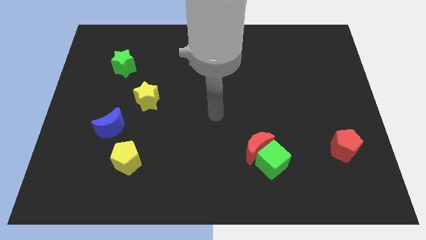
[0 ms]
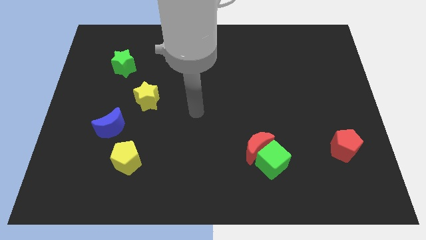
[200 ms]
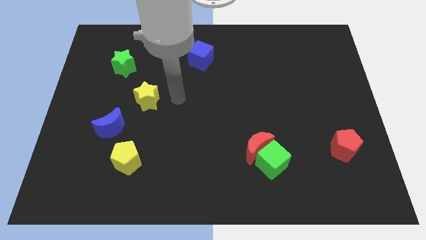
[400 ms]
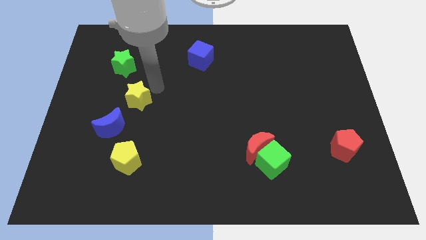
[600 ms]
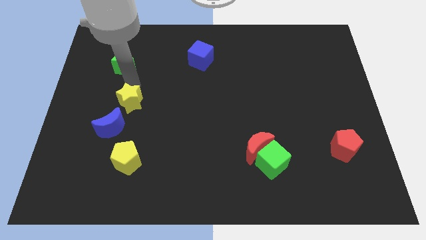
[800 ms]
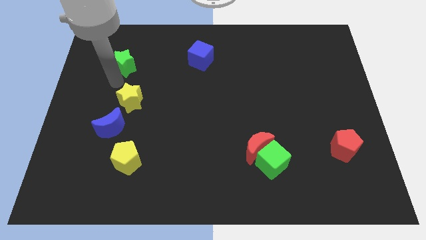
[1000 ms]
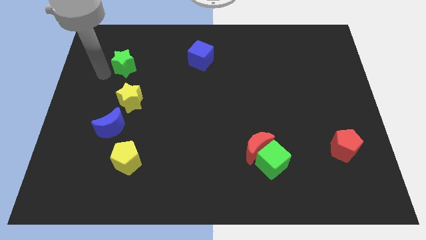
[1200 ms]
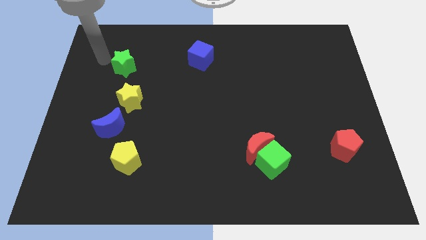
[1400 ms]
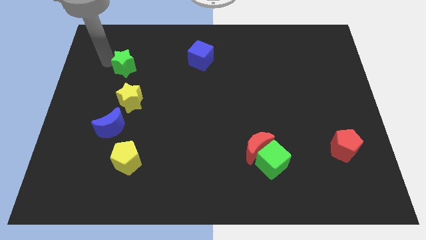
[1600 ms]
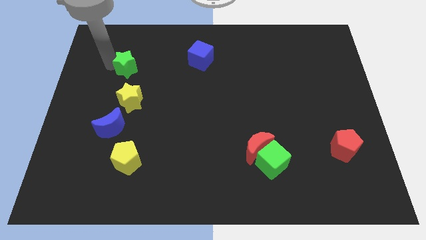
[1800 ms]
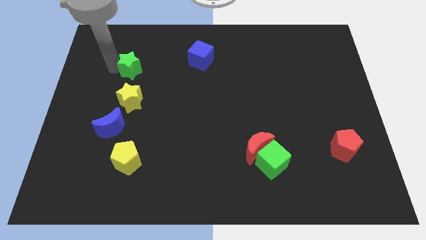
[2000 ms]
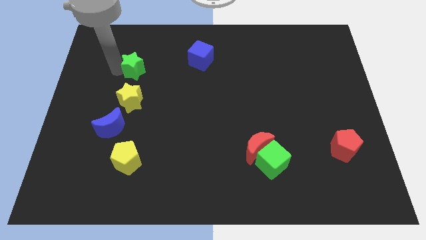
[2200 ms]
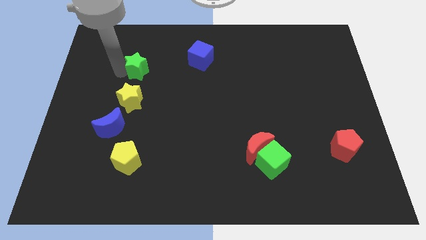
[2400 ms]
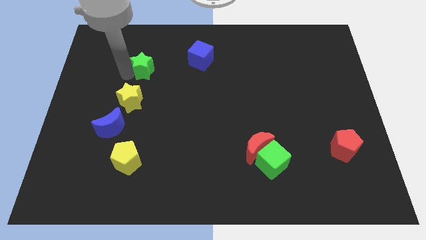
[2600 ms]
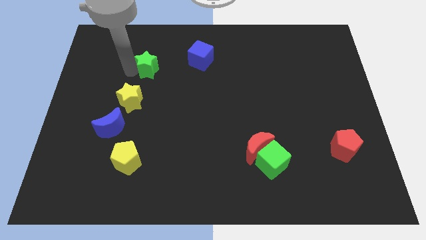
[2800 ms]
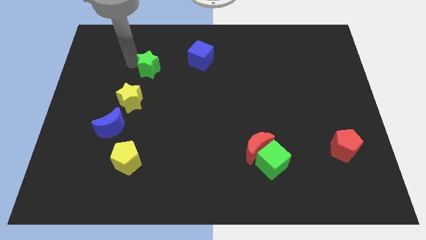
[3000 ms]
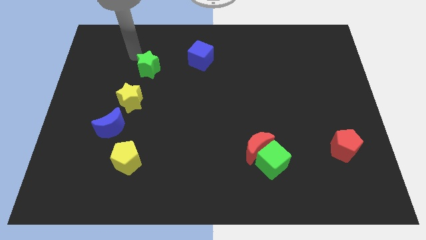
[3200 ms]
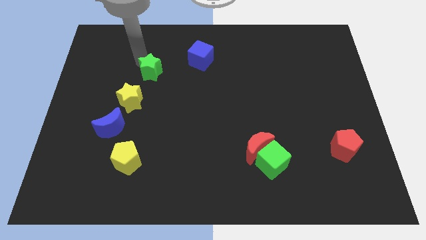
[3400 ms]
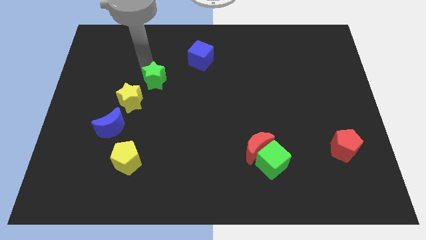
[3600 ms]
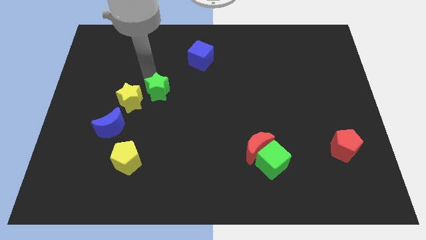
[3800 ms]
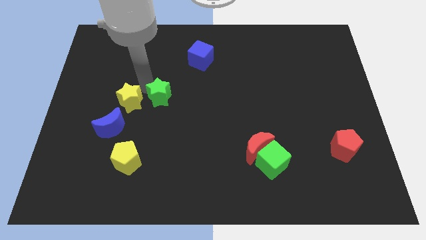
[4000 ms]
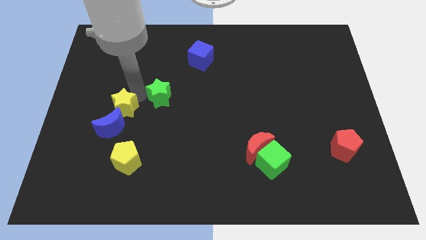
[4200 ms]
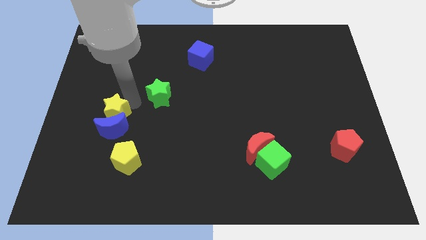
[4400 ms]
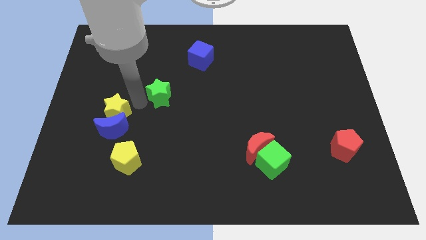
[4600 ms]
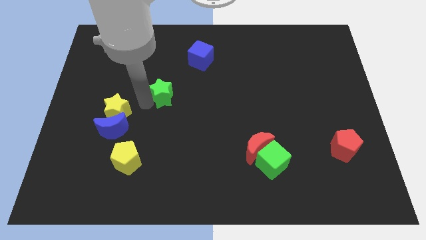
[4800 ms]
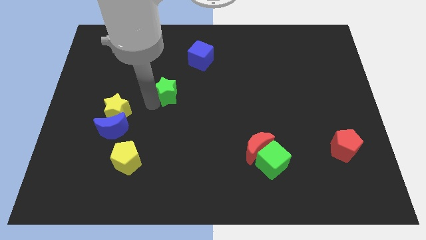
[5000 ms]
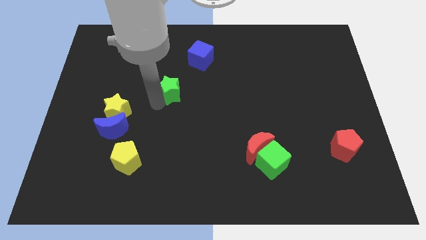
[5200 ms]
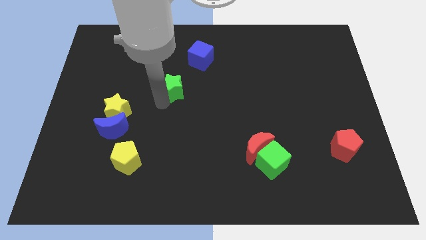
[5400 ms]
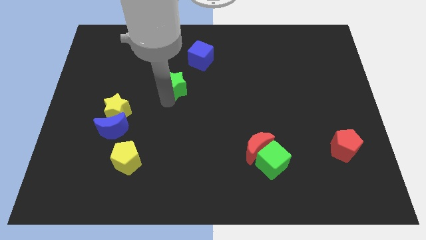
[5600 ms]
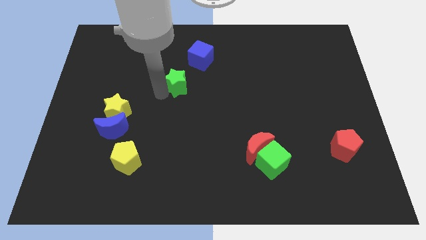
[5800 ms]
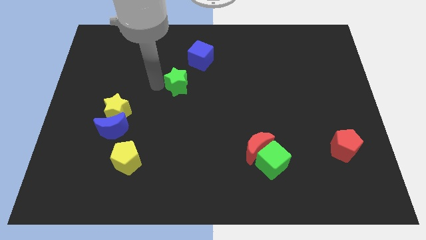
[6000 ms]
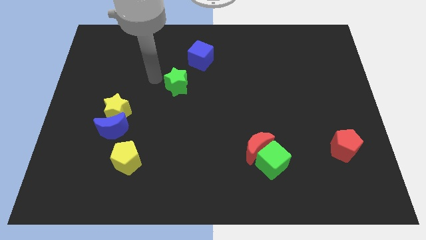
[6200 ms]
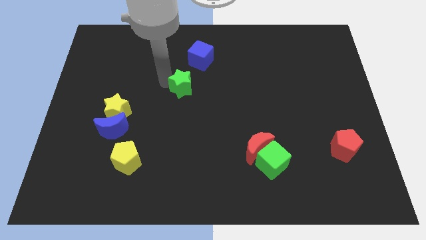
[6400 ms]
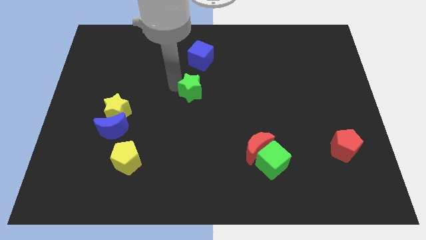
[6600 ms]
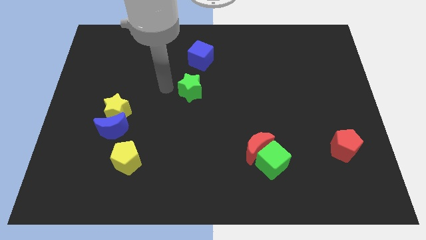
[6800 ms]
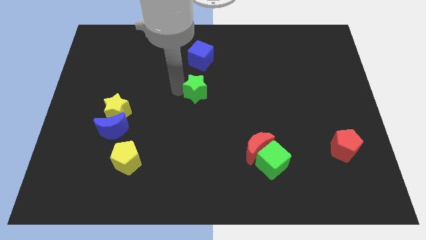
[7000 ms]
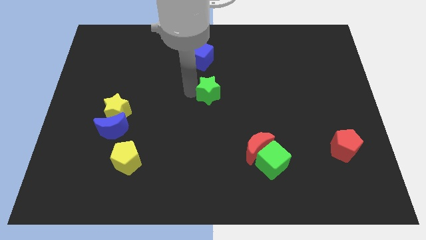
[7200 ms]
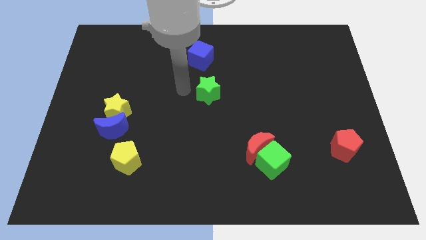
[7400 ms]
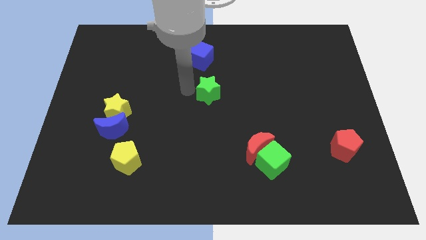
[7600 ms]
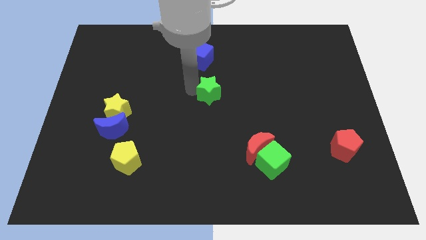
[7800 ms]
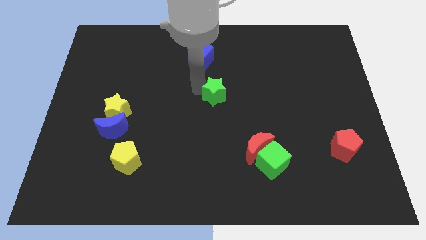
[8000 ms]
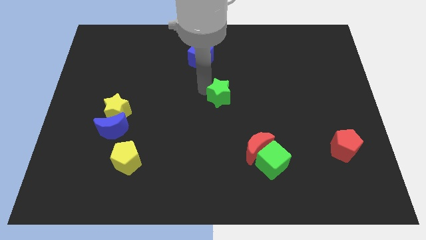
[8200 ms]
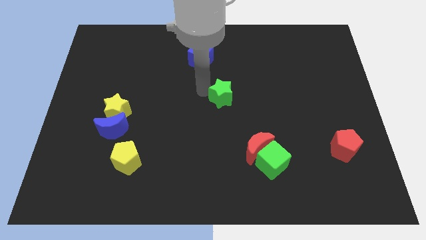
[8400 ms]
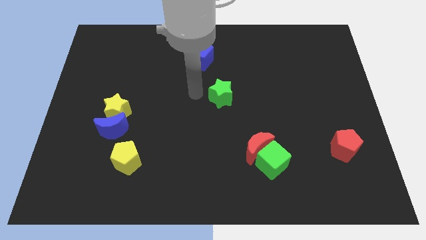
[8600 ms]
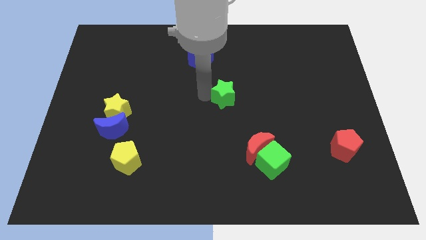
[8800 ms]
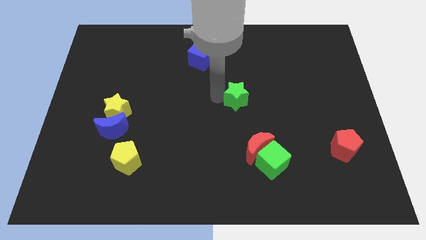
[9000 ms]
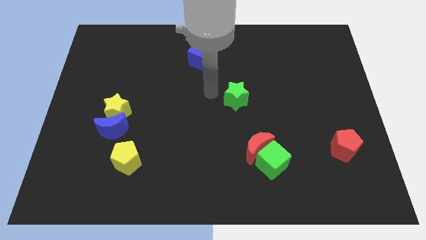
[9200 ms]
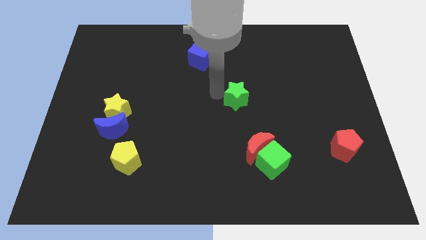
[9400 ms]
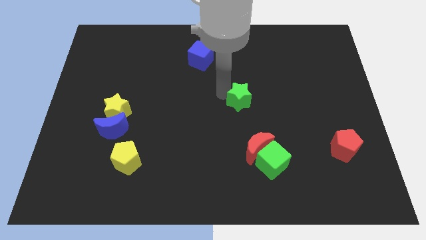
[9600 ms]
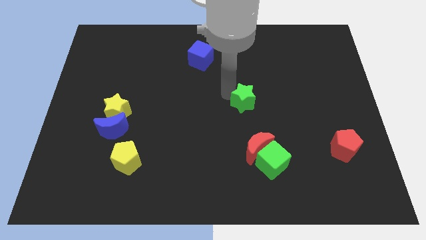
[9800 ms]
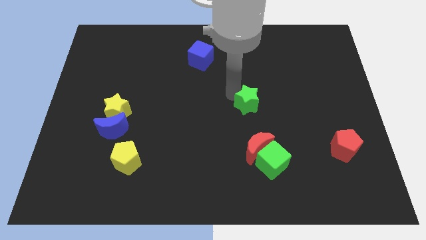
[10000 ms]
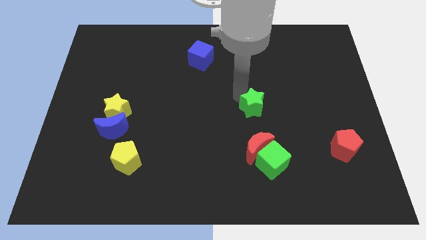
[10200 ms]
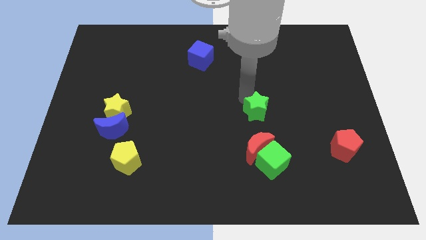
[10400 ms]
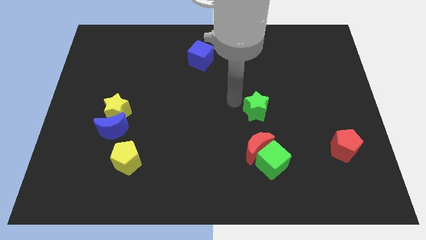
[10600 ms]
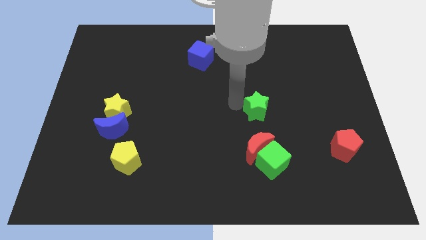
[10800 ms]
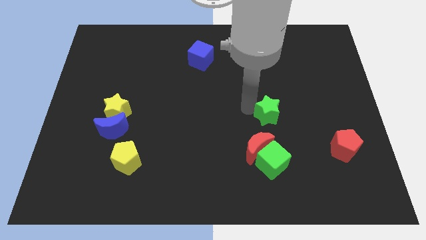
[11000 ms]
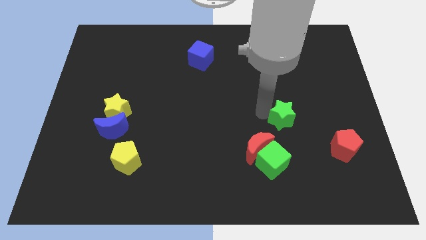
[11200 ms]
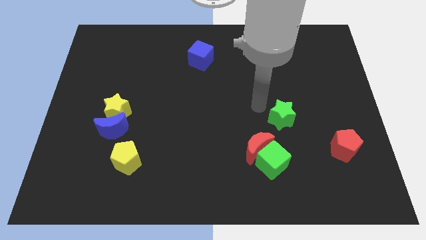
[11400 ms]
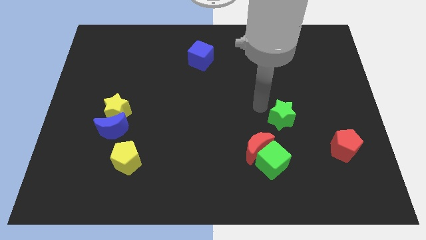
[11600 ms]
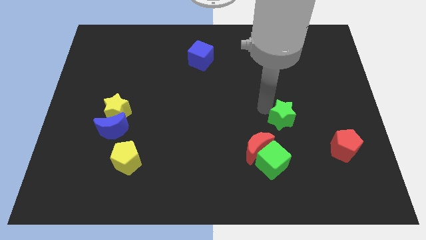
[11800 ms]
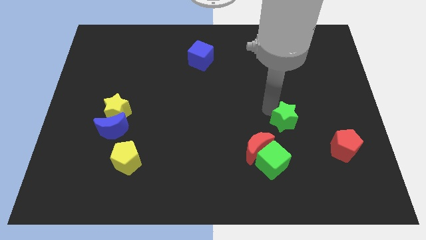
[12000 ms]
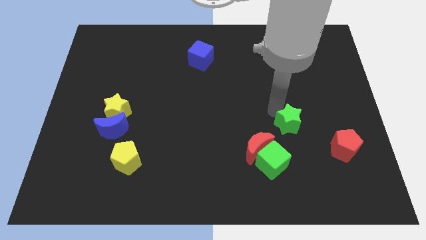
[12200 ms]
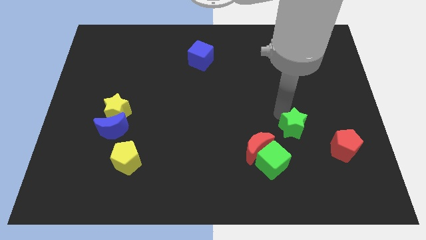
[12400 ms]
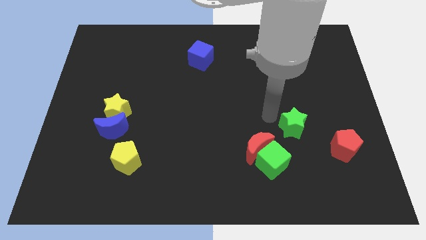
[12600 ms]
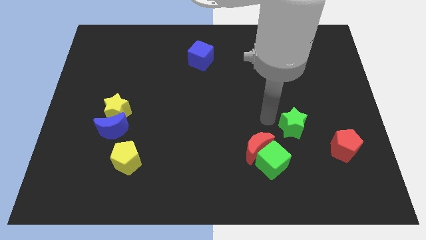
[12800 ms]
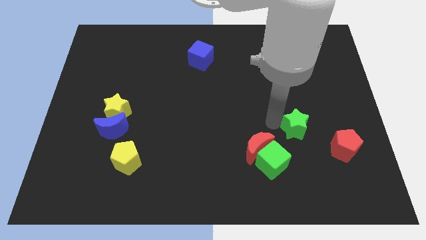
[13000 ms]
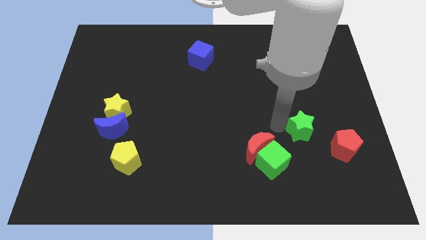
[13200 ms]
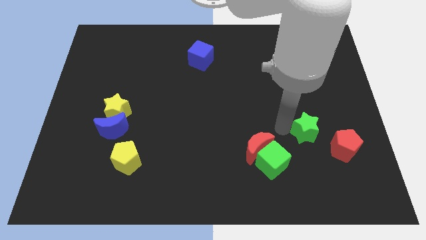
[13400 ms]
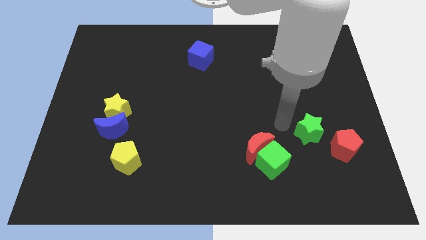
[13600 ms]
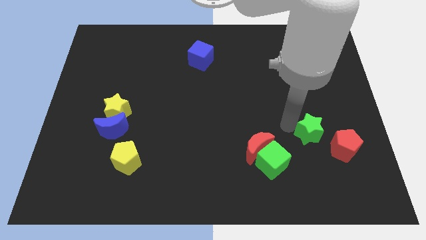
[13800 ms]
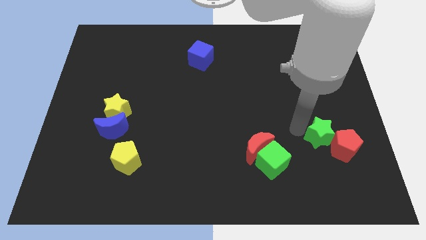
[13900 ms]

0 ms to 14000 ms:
slide the green star to the red pentagon
